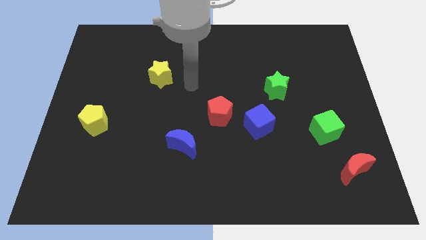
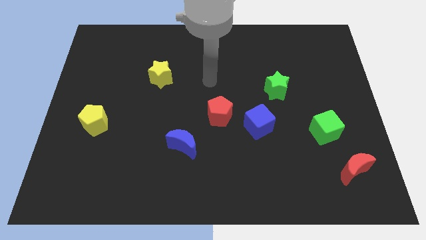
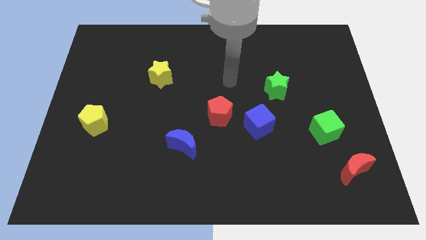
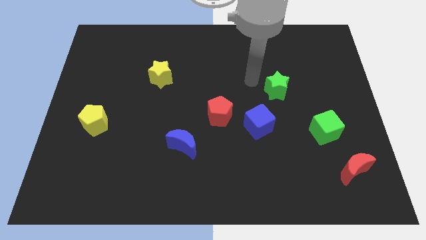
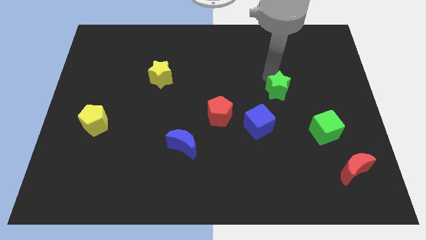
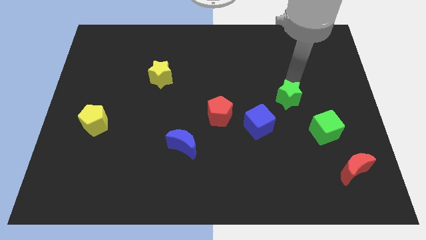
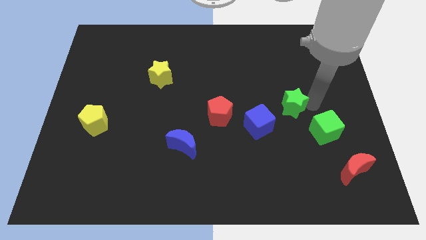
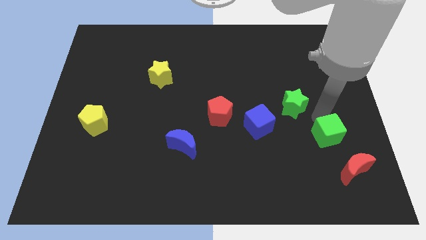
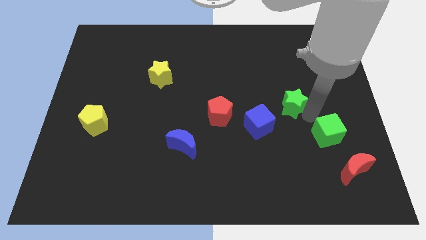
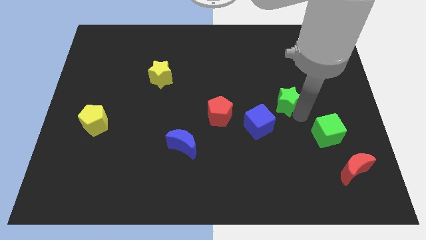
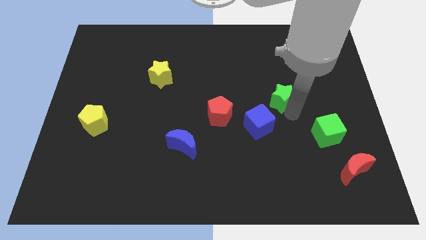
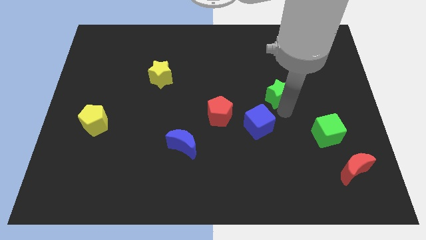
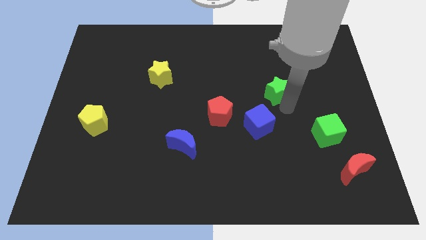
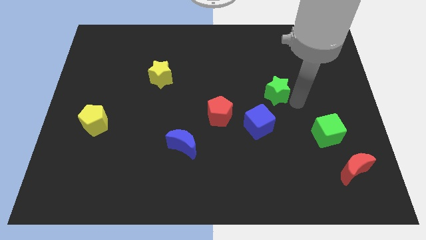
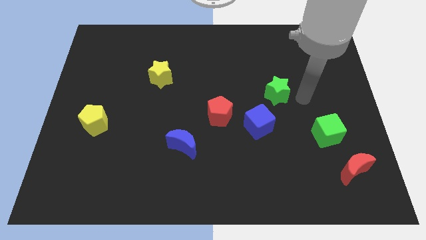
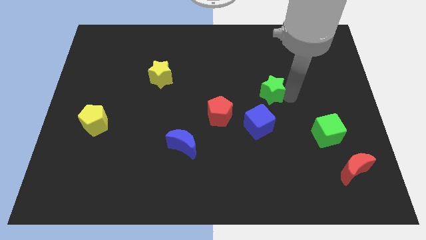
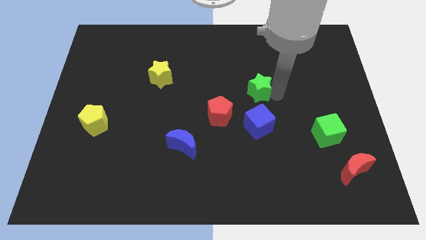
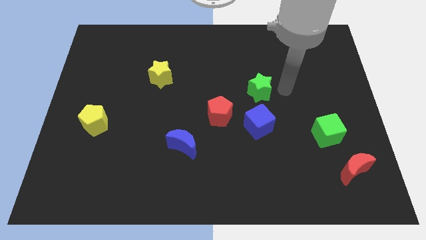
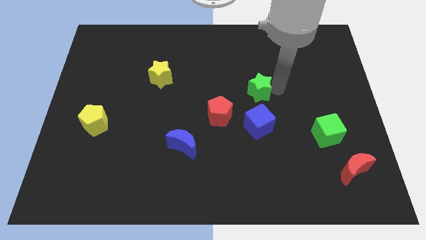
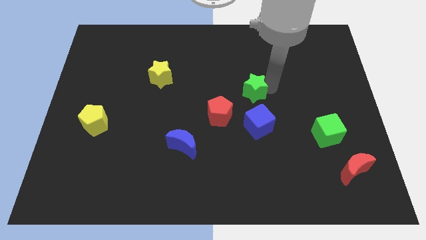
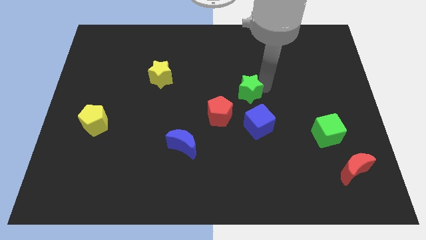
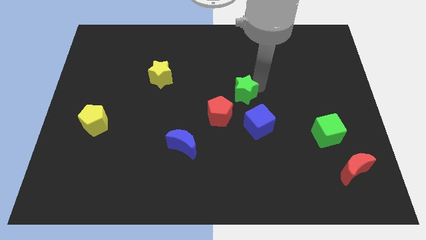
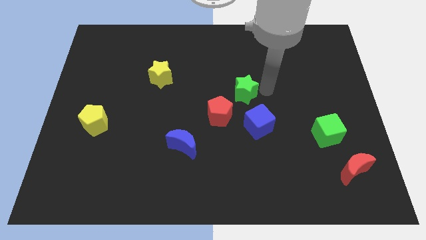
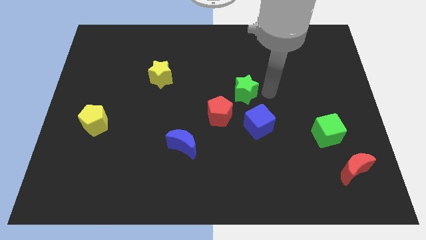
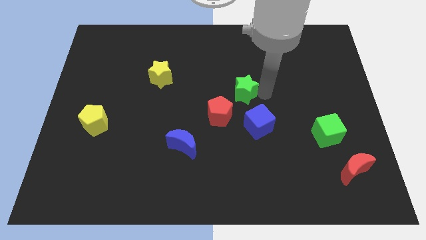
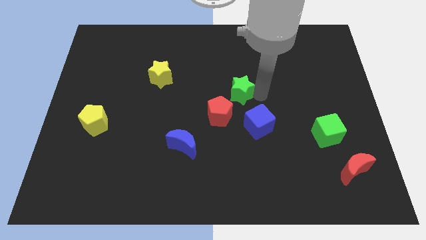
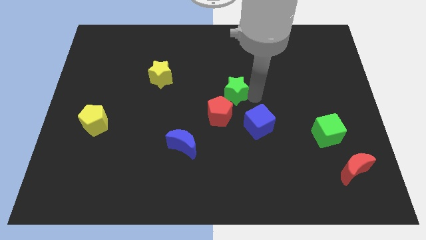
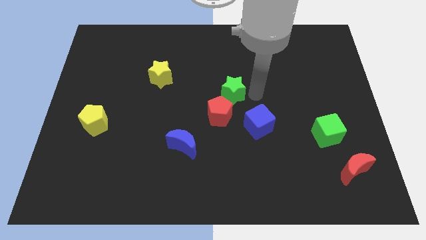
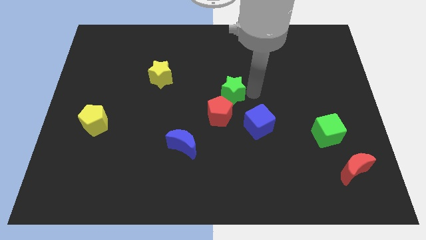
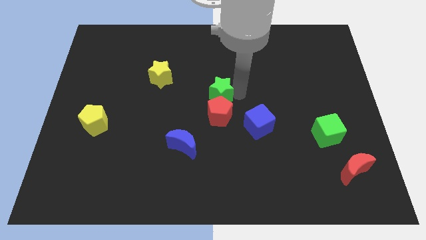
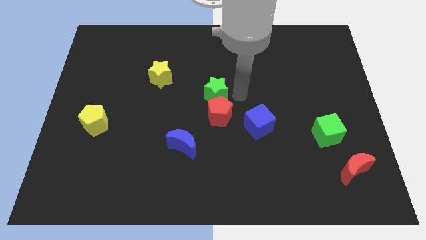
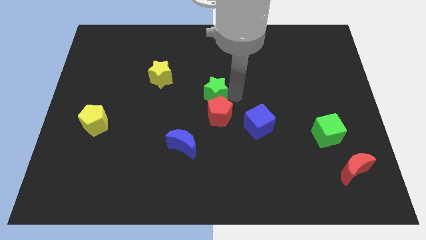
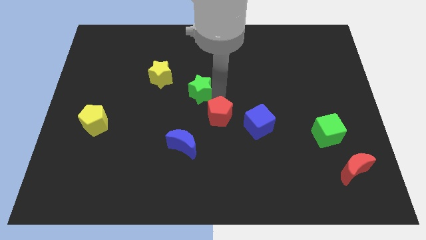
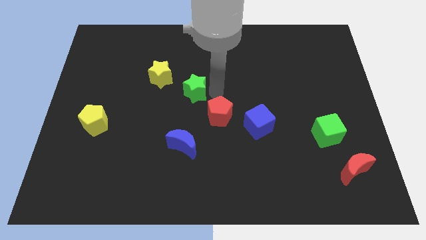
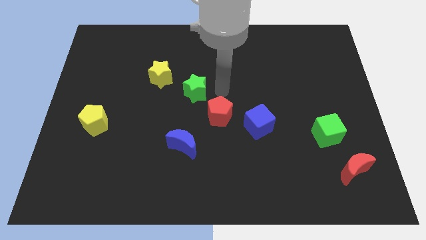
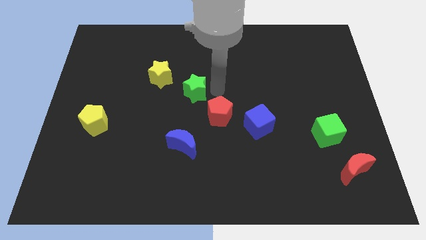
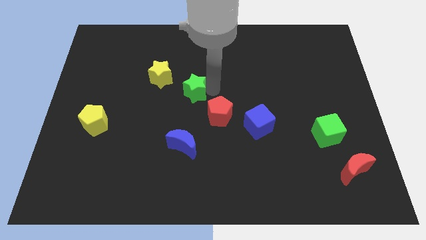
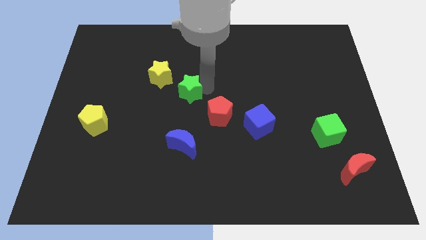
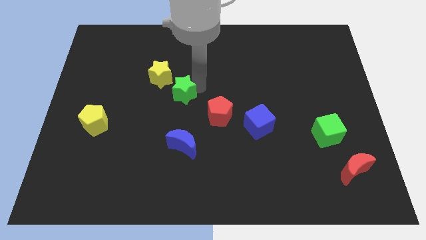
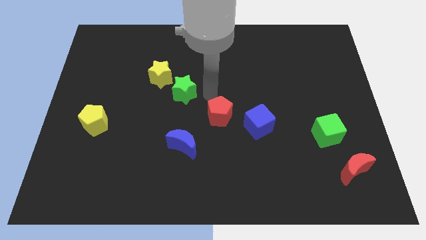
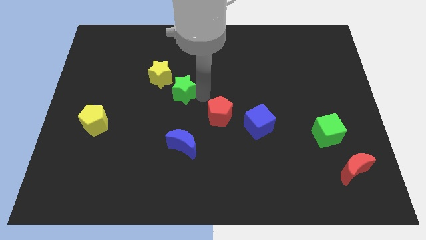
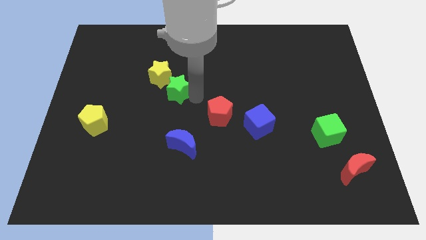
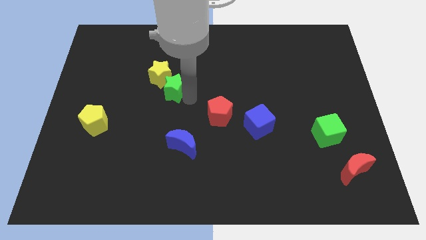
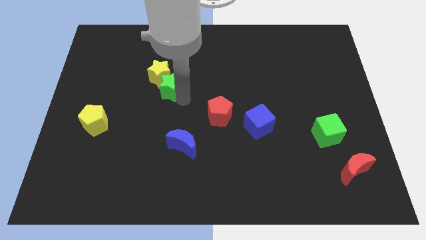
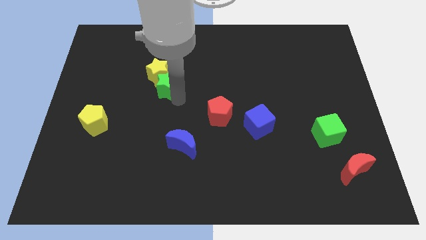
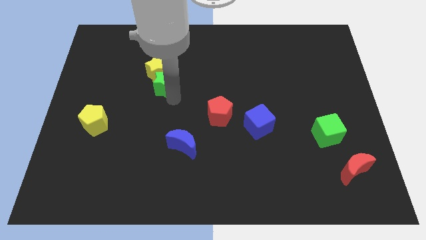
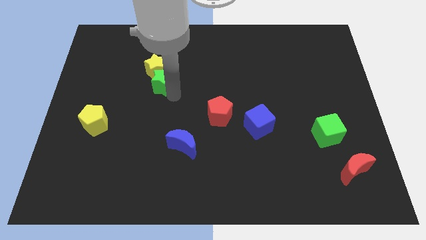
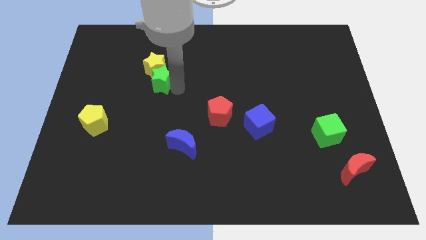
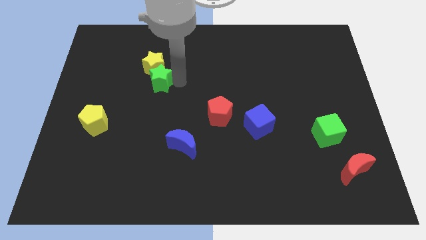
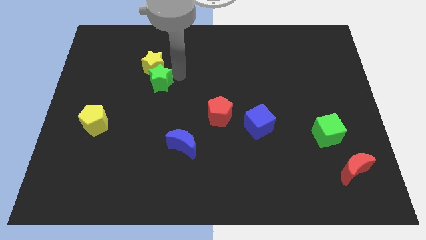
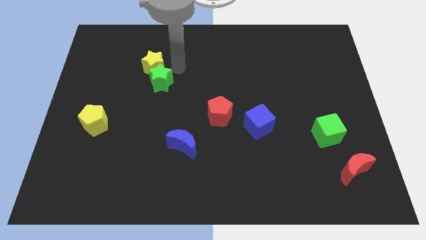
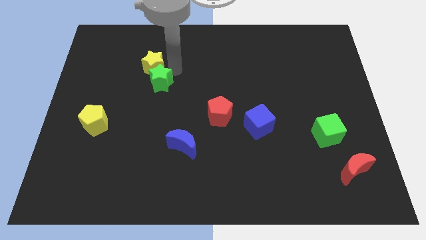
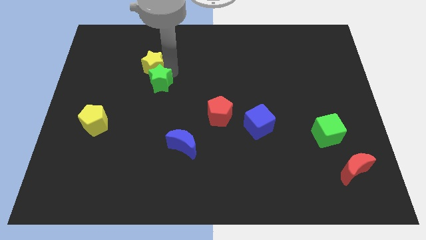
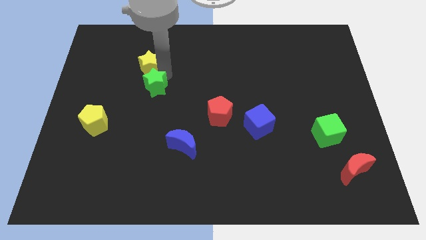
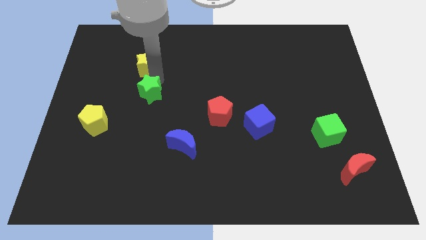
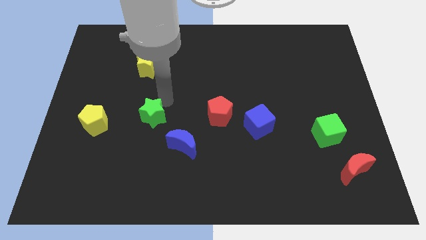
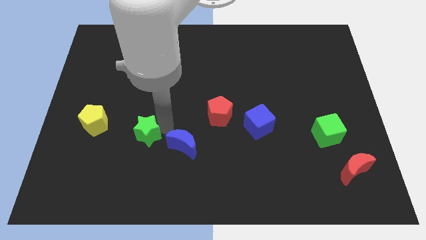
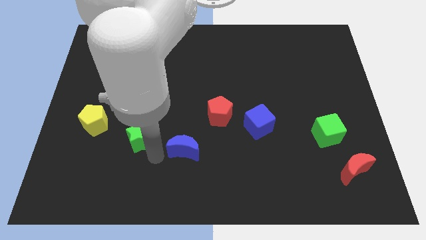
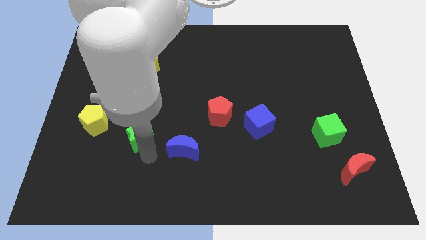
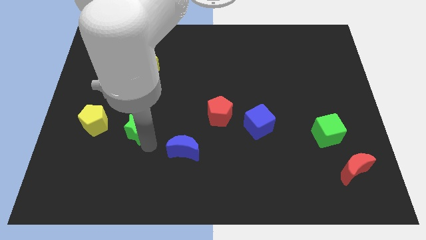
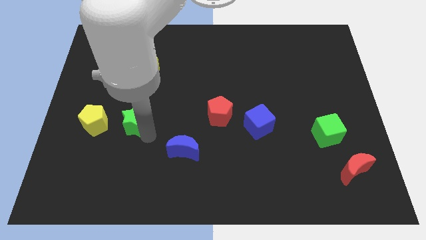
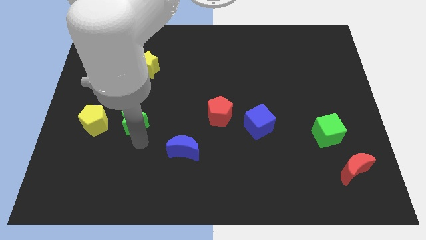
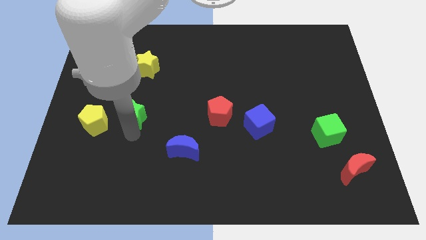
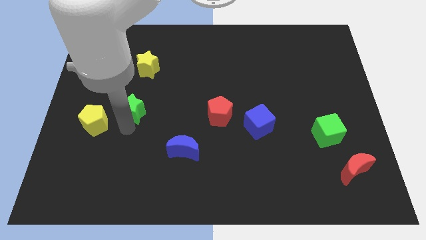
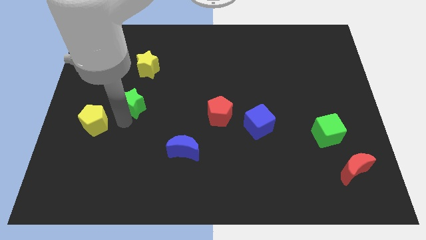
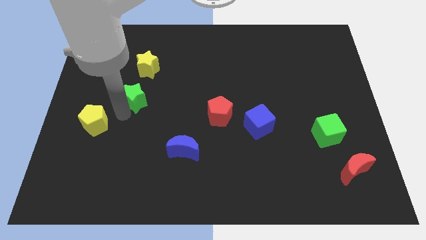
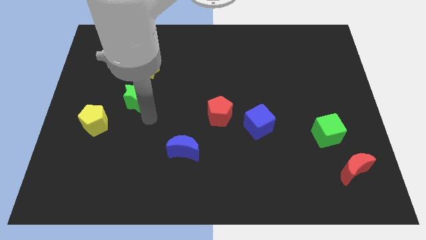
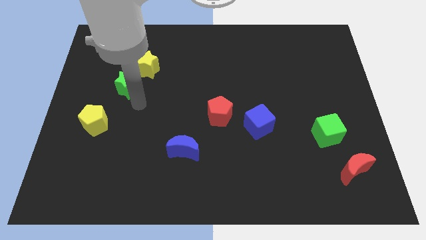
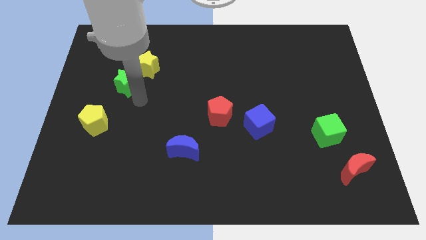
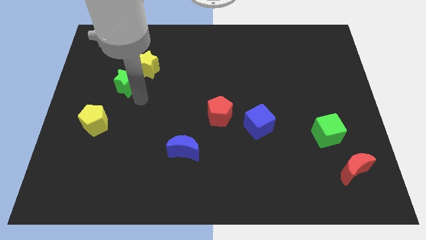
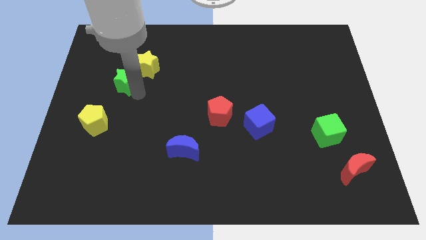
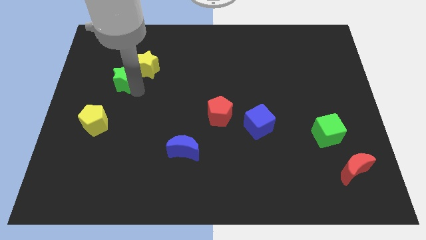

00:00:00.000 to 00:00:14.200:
push the green star to the left of the yellow star
